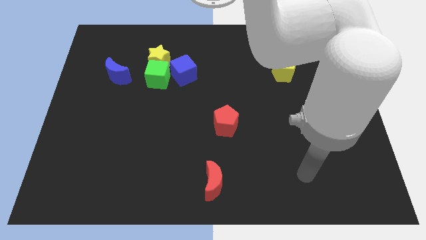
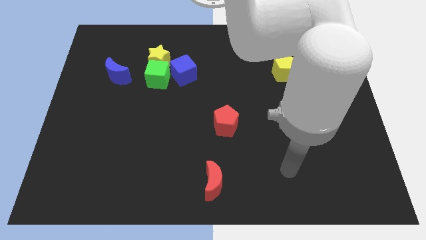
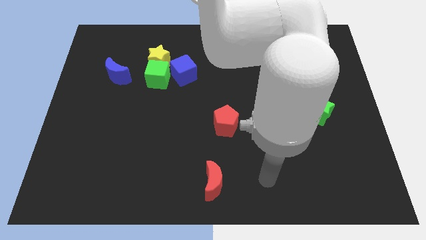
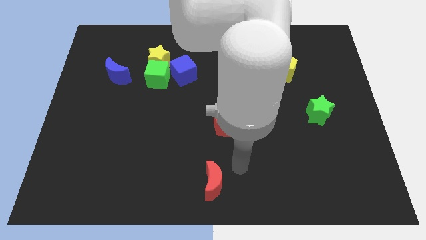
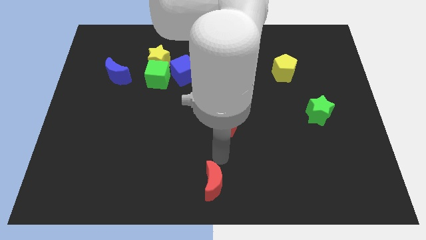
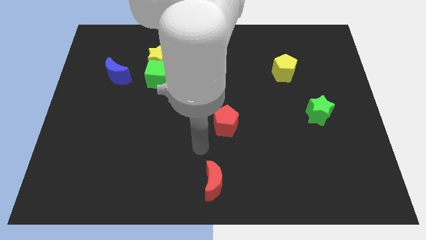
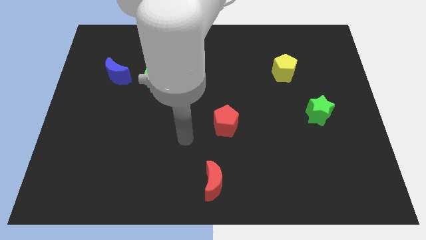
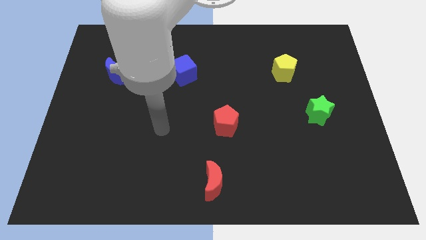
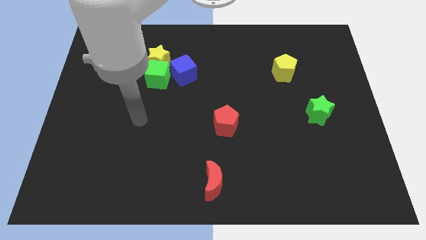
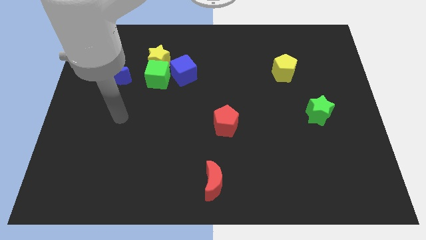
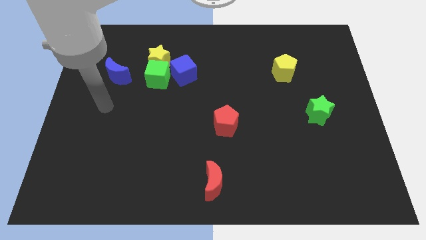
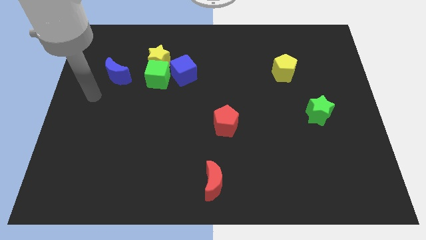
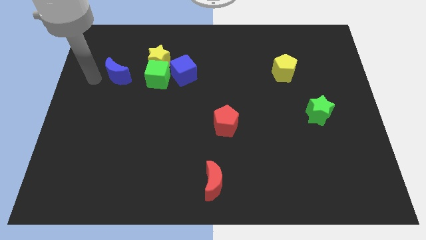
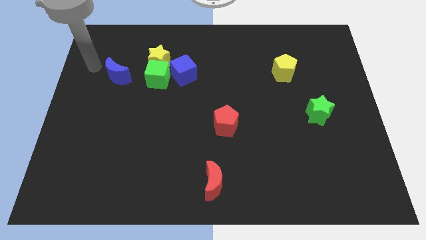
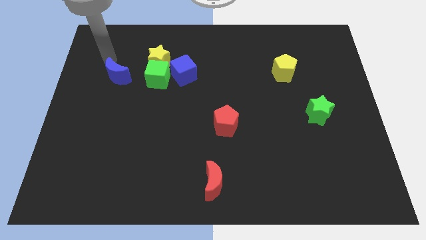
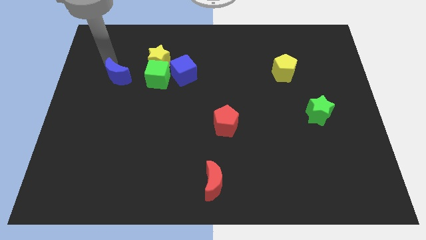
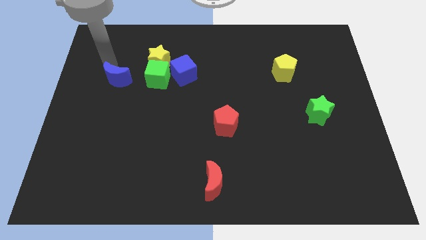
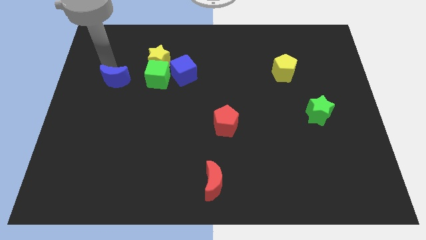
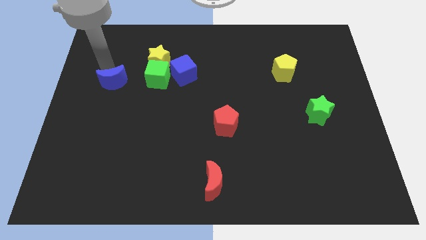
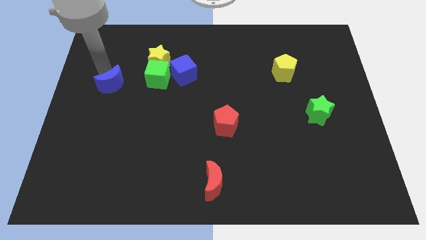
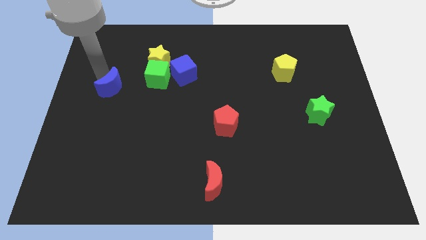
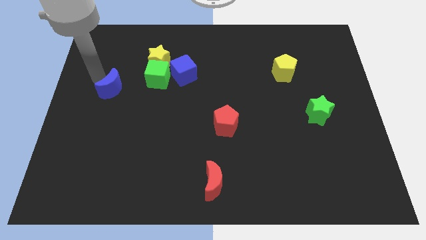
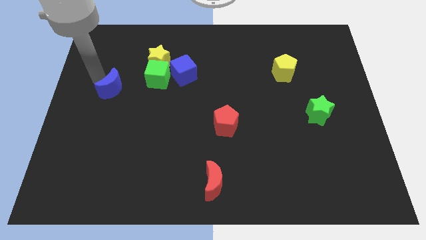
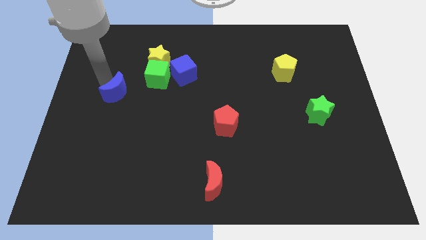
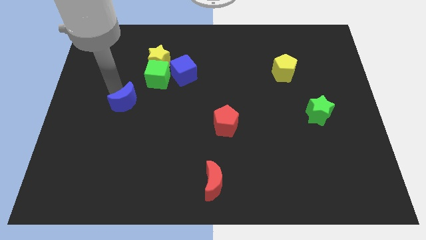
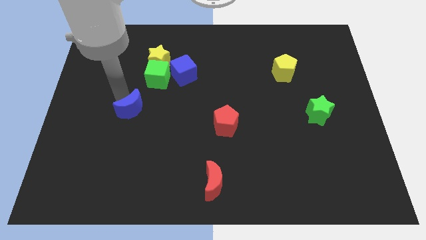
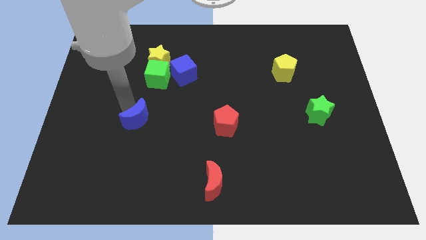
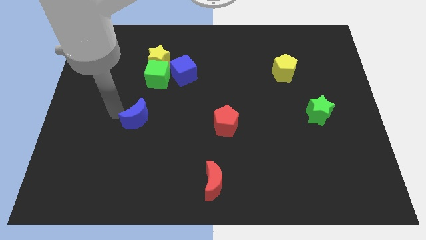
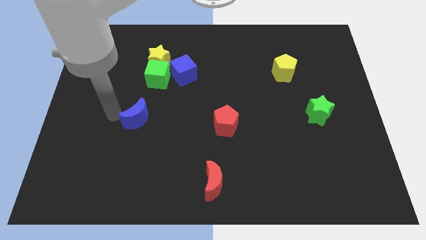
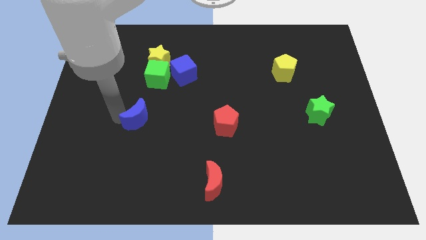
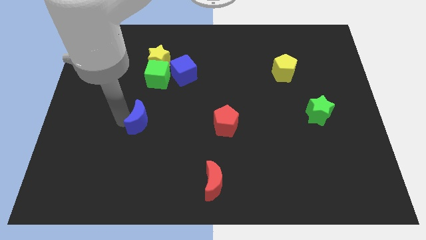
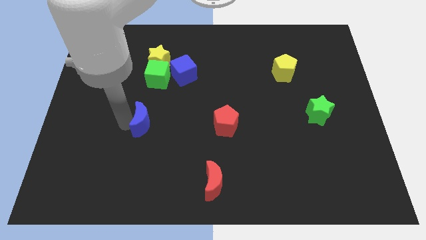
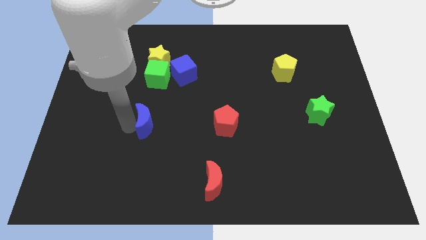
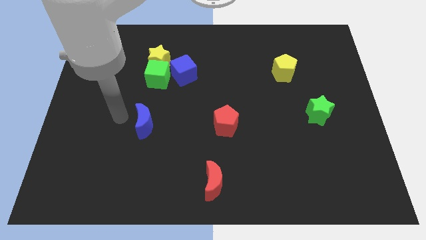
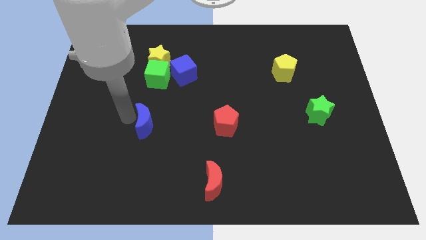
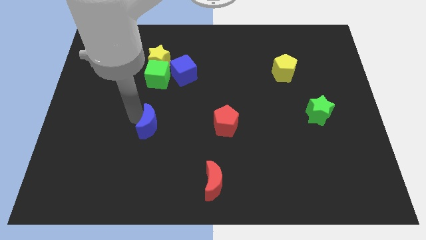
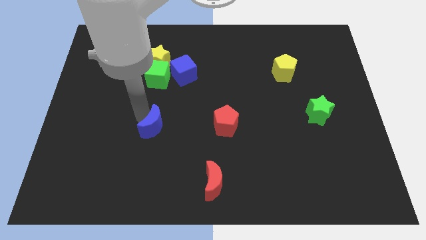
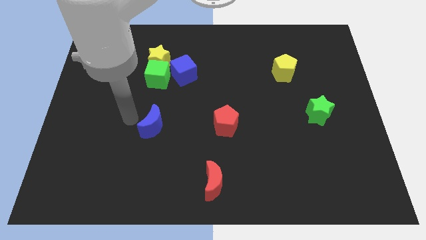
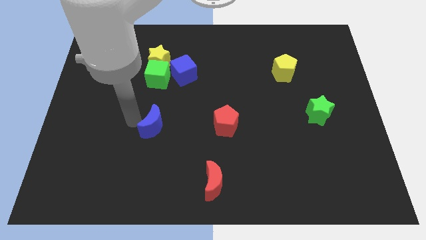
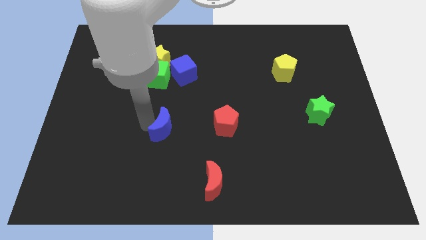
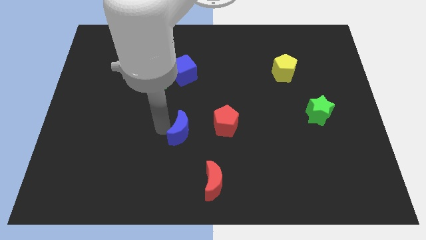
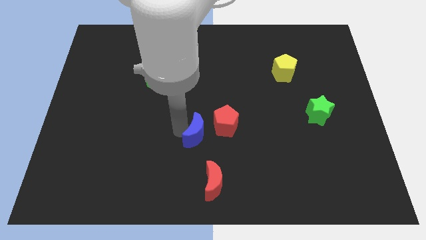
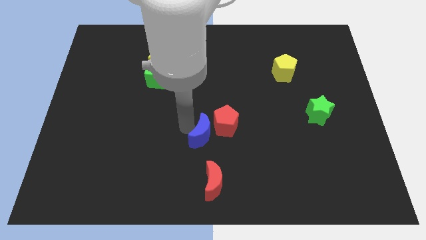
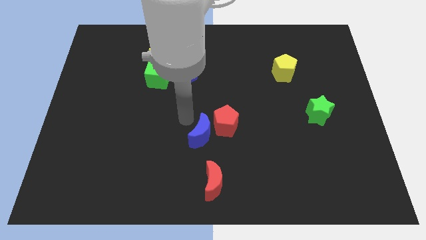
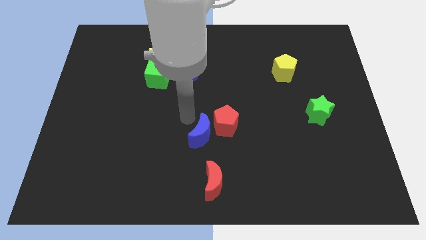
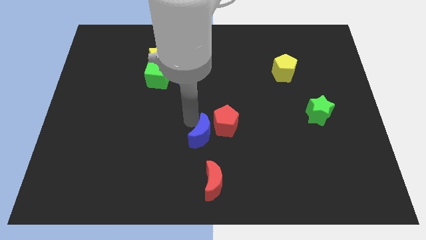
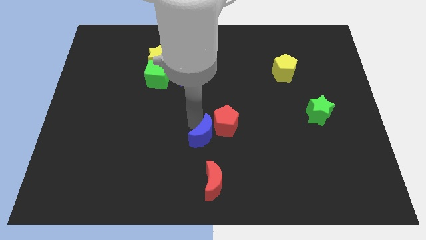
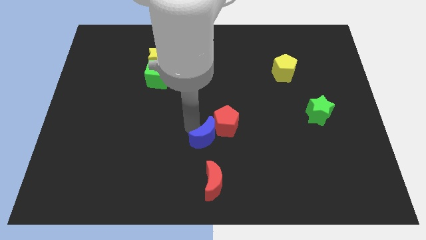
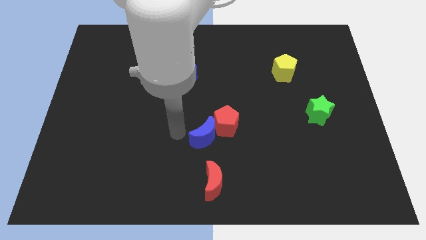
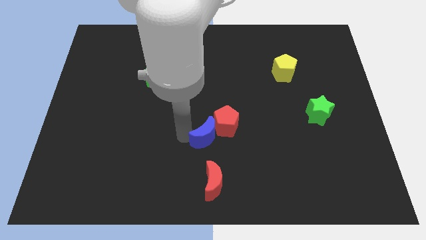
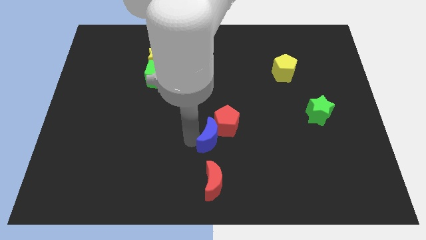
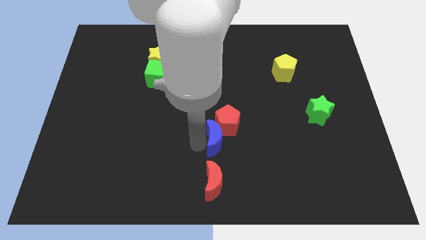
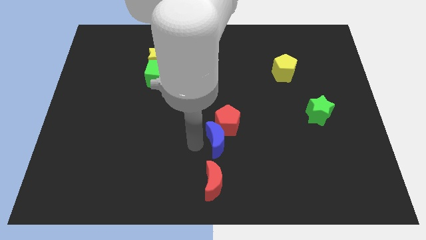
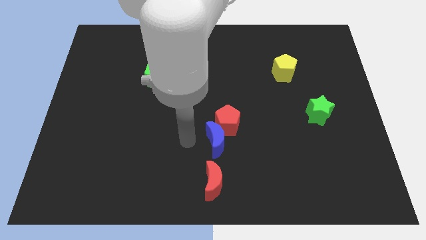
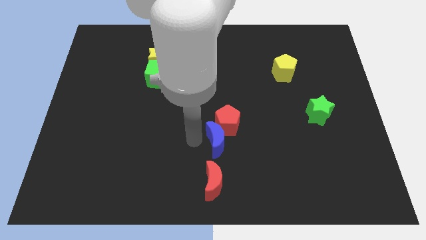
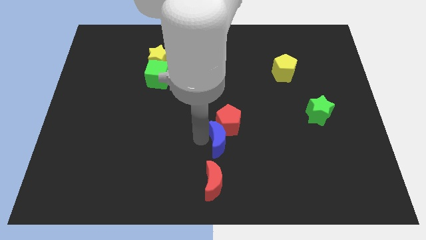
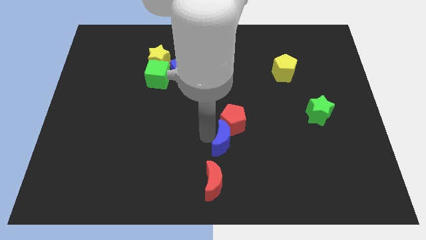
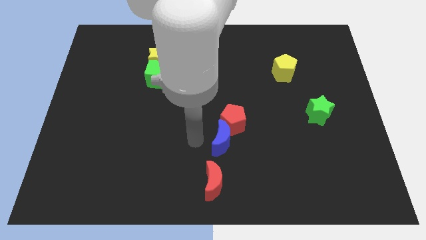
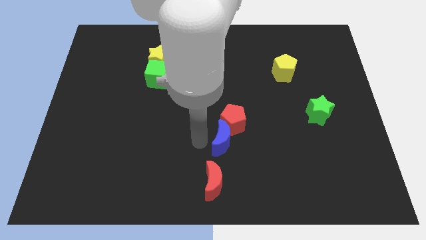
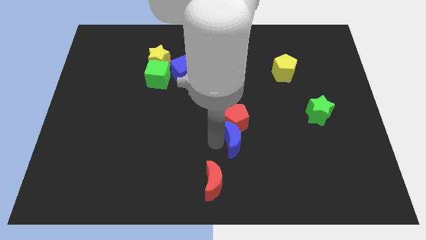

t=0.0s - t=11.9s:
slide the blue moon diagonally down and to the right of the red pentagon

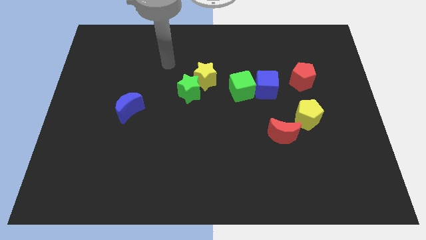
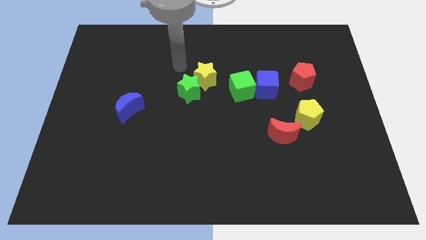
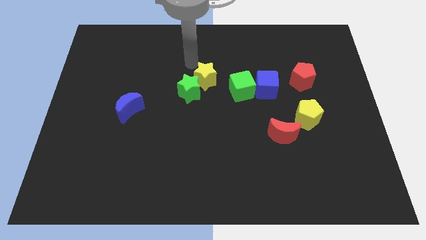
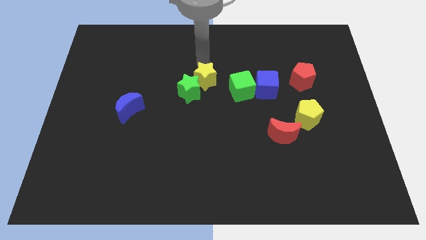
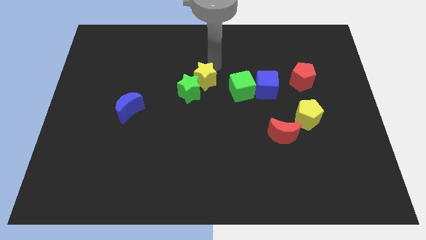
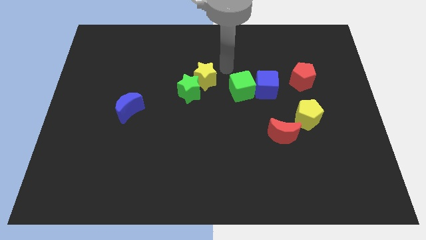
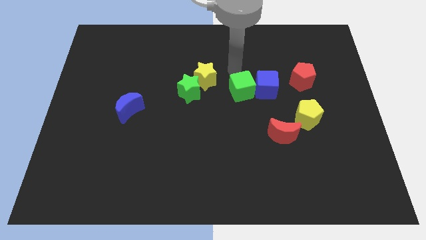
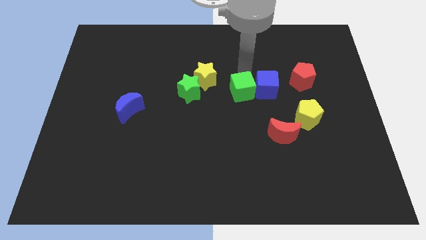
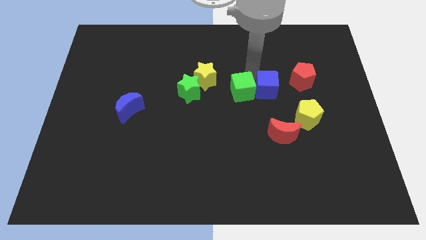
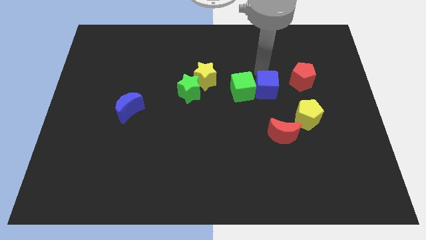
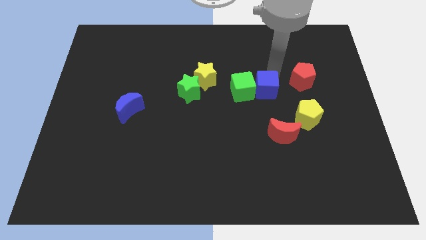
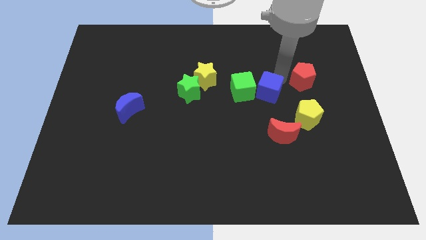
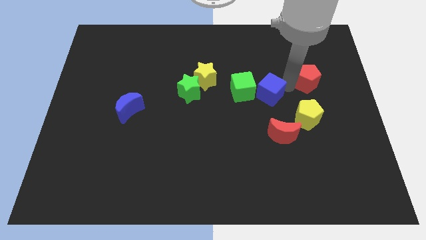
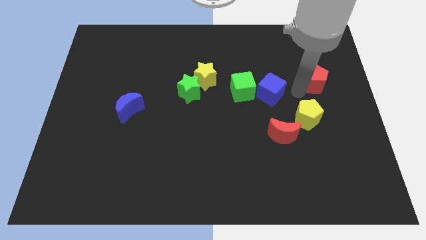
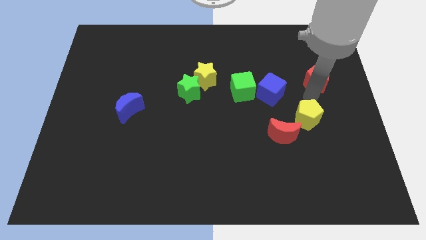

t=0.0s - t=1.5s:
put the yellow pentagon to the bottom left side of the red pentagon
